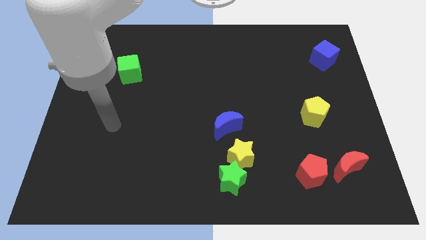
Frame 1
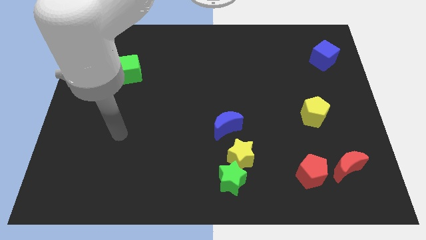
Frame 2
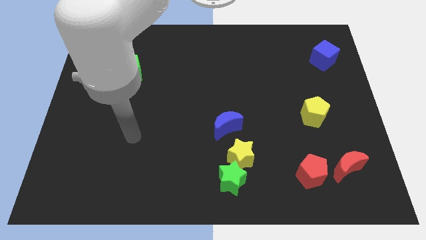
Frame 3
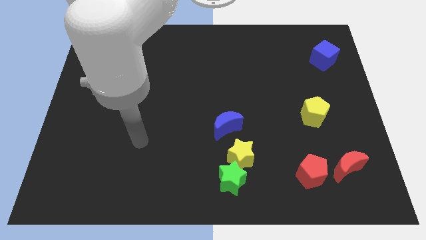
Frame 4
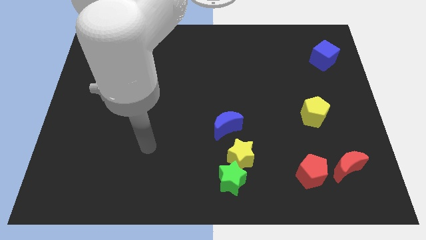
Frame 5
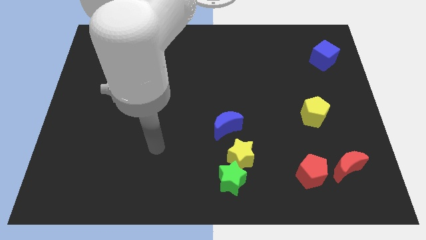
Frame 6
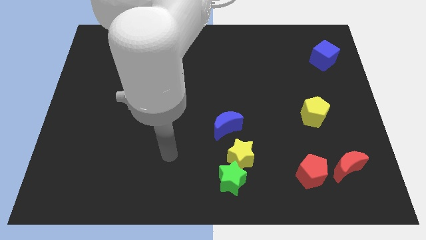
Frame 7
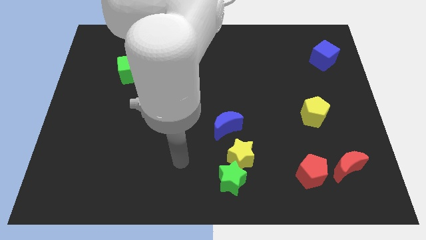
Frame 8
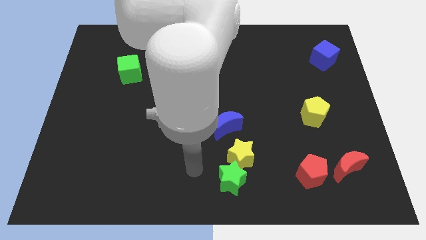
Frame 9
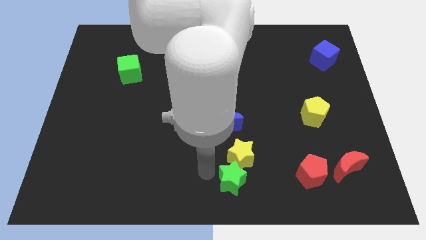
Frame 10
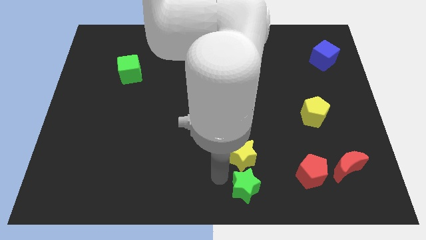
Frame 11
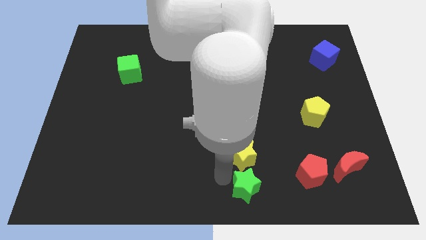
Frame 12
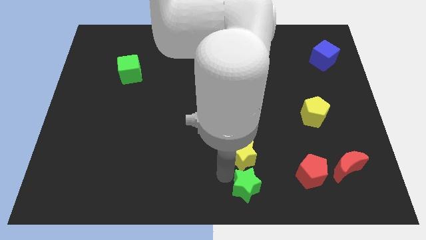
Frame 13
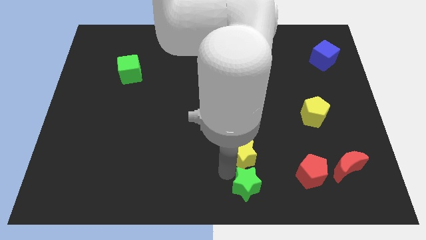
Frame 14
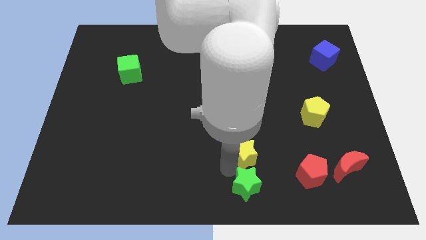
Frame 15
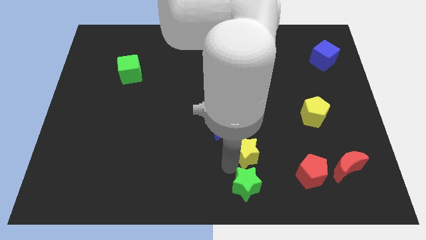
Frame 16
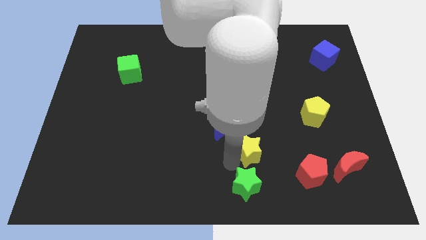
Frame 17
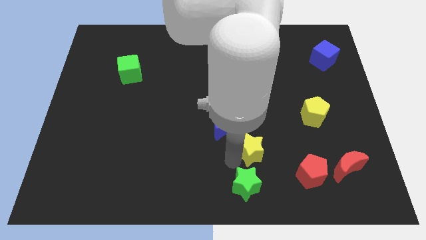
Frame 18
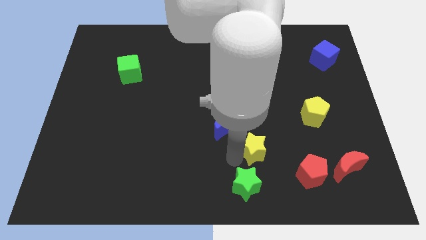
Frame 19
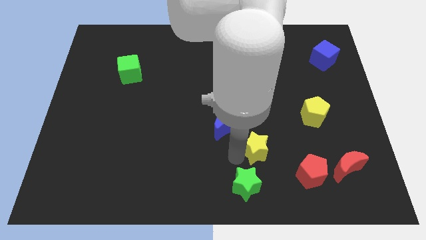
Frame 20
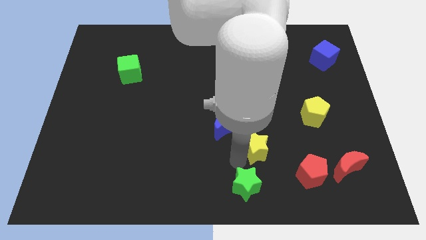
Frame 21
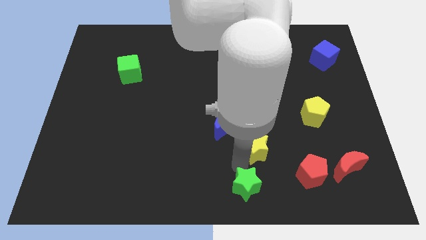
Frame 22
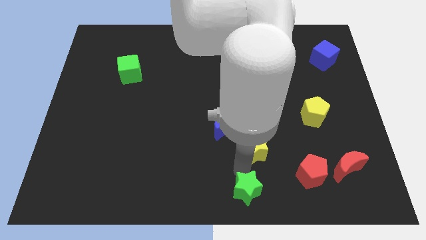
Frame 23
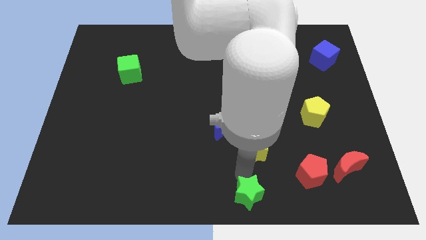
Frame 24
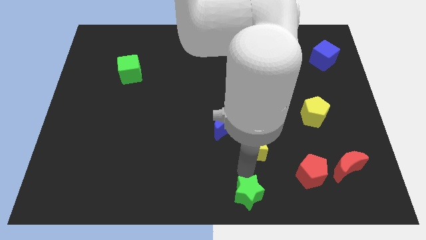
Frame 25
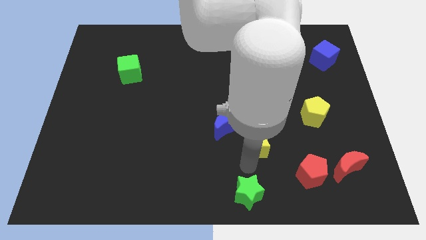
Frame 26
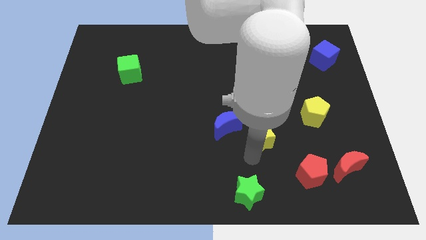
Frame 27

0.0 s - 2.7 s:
slide the yellow star upwards and to the right diagonally a little

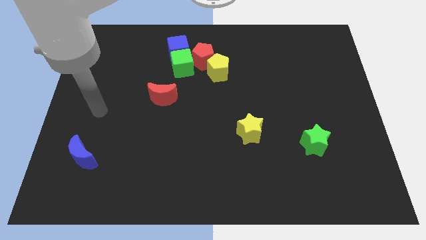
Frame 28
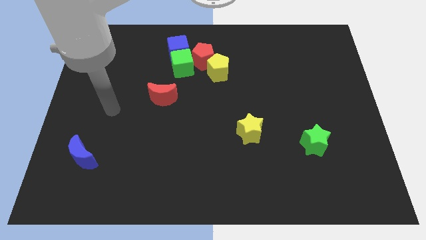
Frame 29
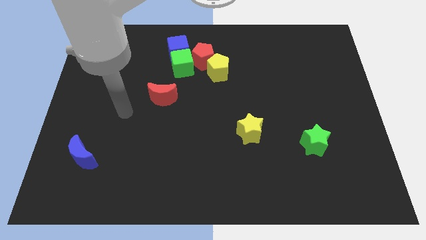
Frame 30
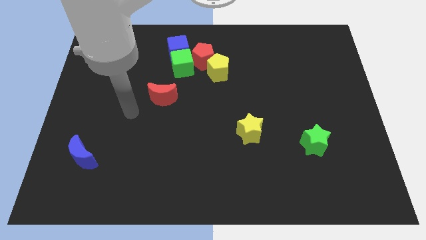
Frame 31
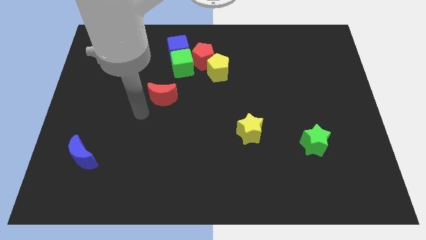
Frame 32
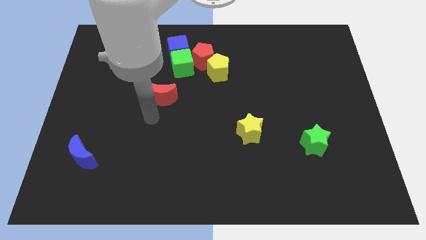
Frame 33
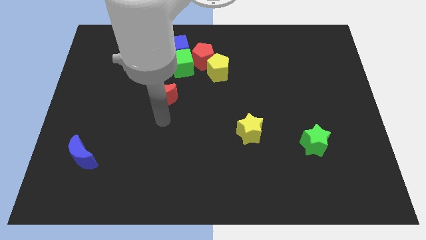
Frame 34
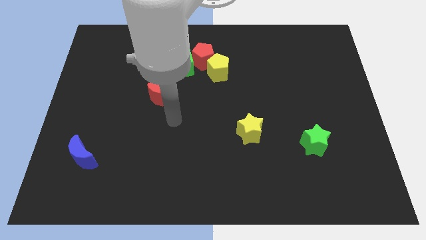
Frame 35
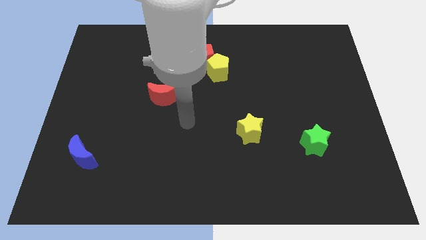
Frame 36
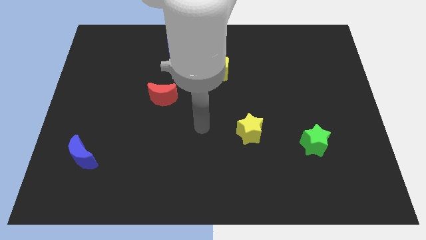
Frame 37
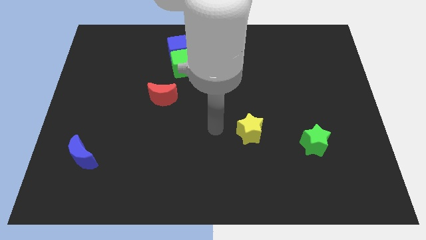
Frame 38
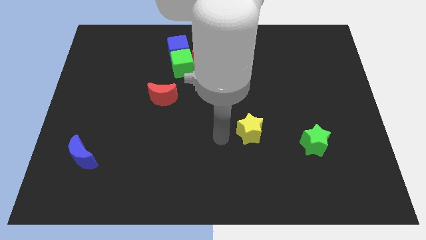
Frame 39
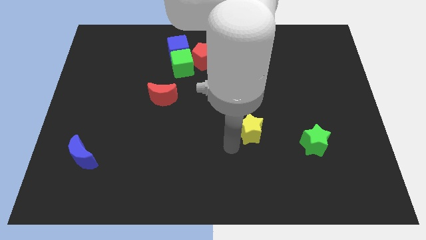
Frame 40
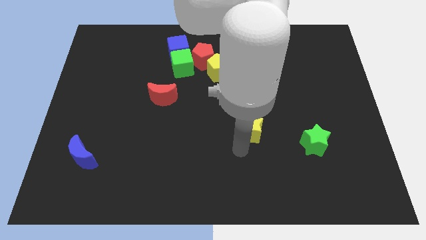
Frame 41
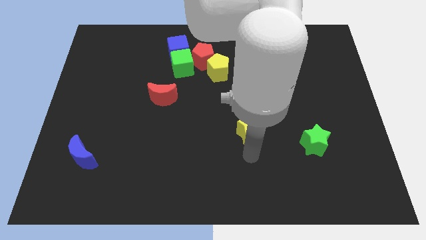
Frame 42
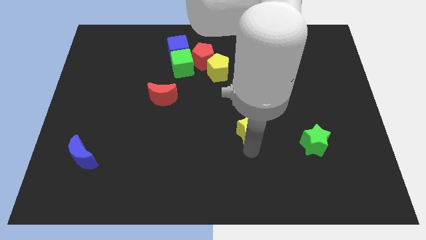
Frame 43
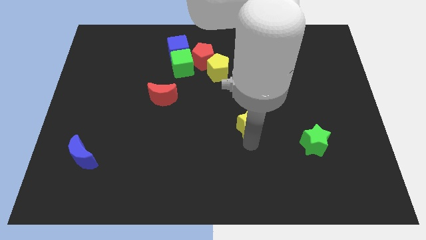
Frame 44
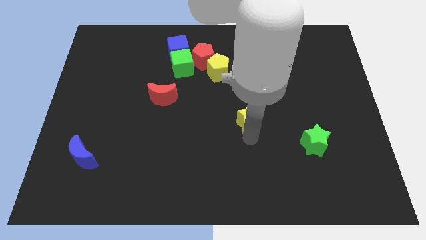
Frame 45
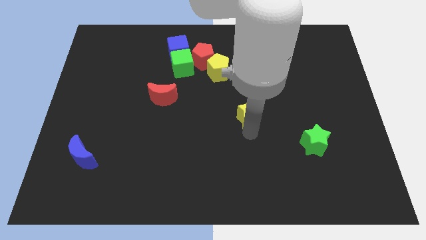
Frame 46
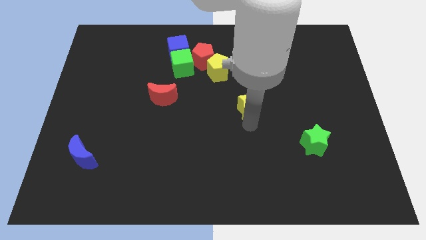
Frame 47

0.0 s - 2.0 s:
slightly slide the yellow star up

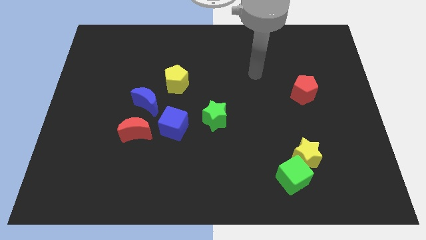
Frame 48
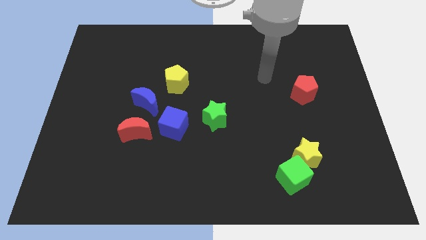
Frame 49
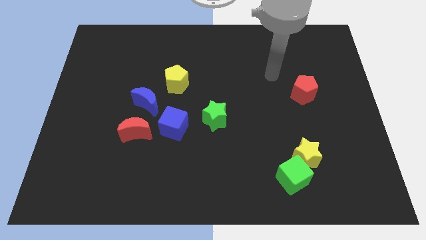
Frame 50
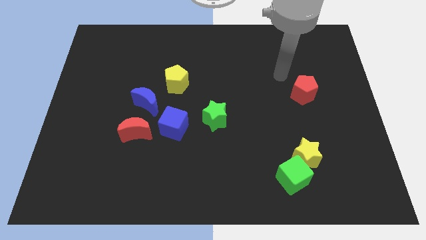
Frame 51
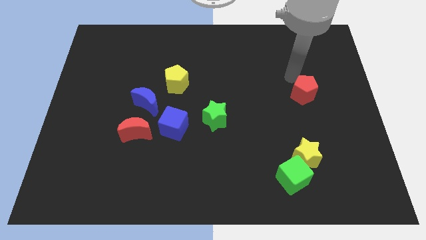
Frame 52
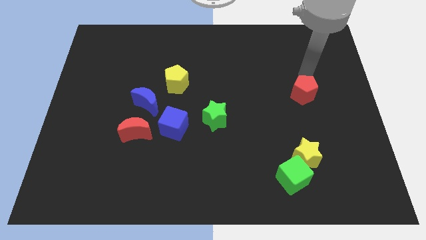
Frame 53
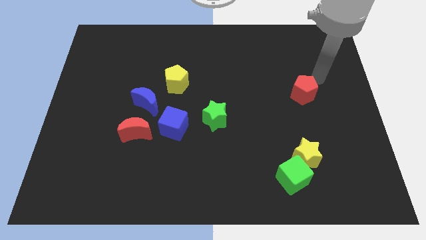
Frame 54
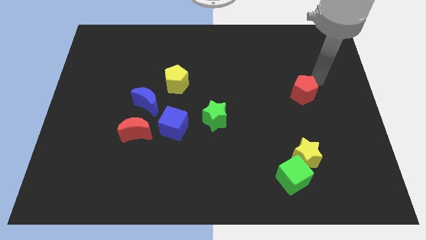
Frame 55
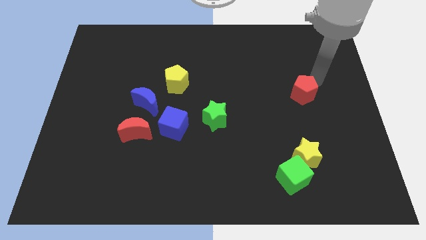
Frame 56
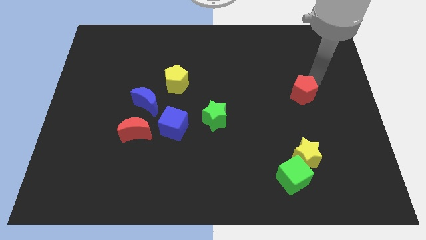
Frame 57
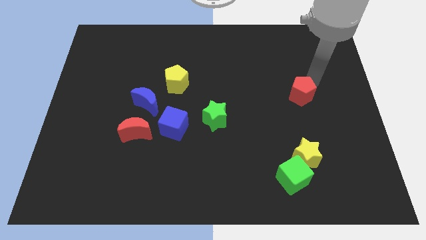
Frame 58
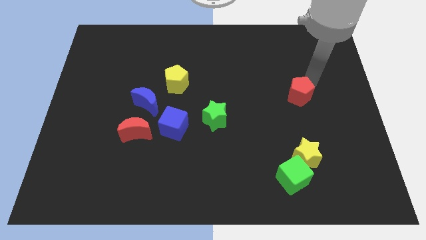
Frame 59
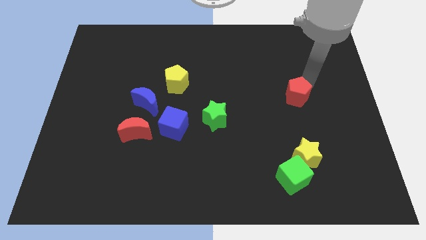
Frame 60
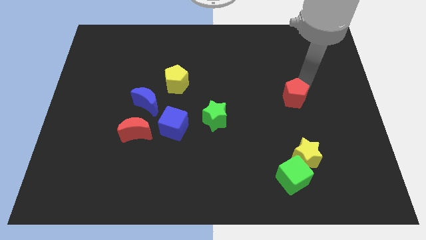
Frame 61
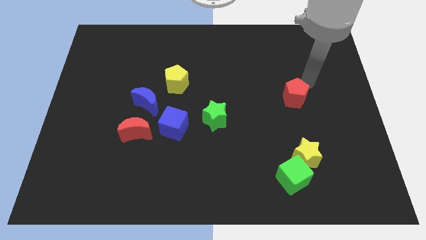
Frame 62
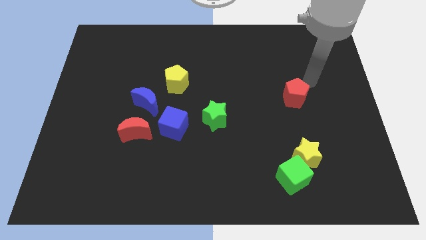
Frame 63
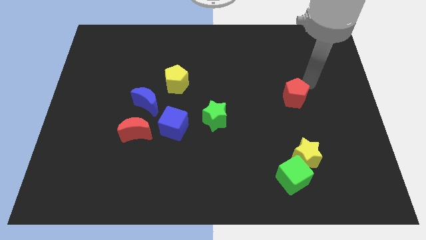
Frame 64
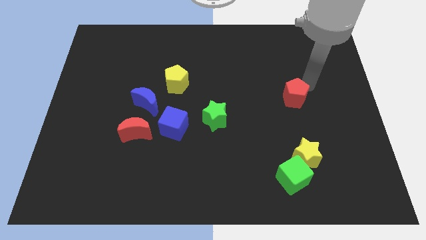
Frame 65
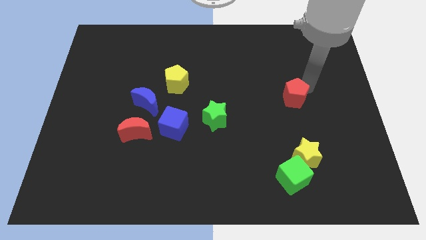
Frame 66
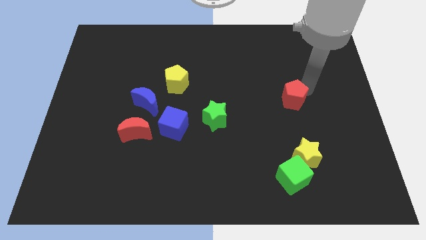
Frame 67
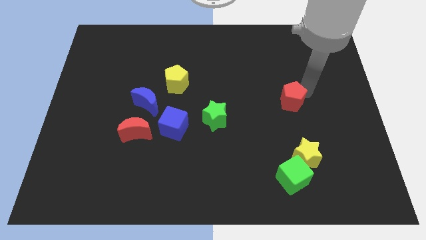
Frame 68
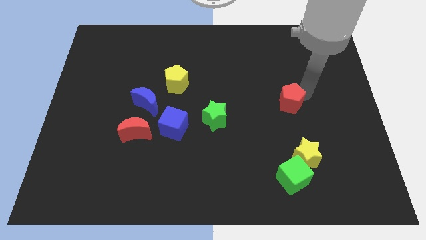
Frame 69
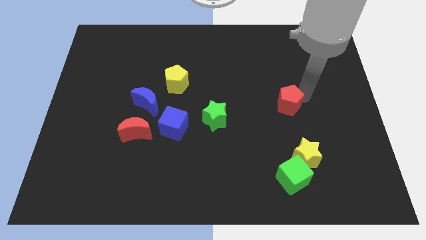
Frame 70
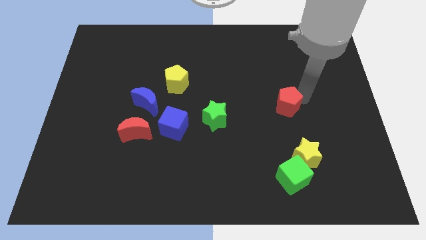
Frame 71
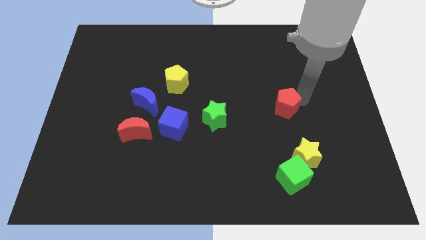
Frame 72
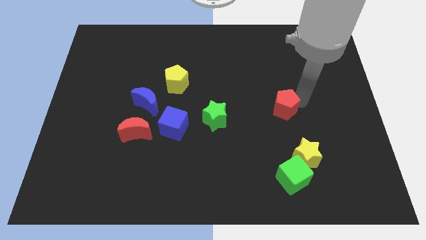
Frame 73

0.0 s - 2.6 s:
move the red pentagon slightly down and to the left

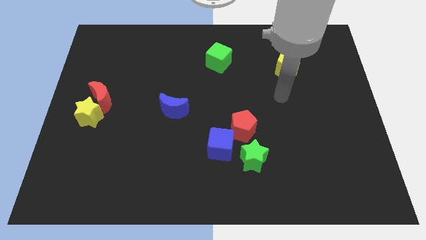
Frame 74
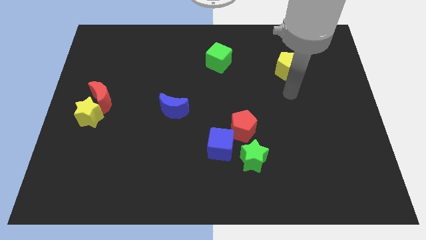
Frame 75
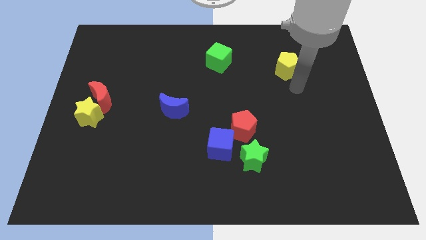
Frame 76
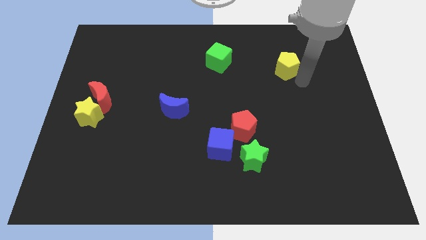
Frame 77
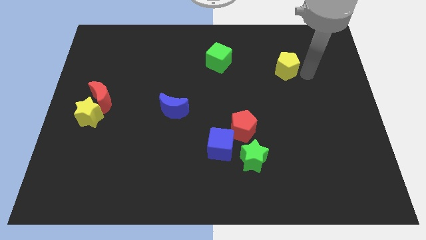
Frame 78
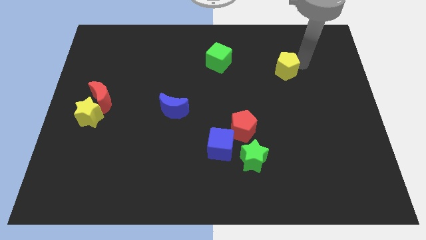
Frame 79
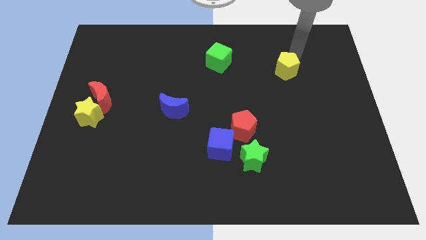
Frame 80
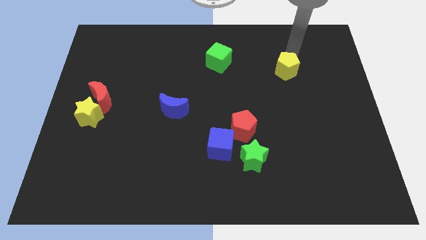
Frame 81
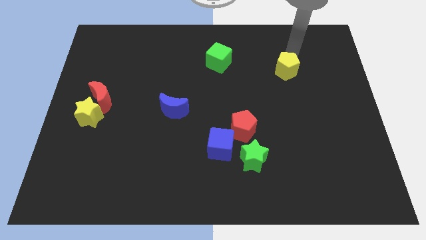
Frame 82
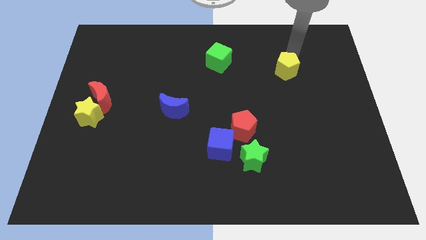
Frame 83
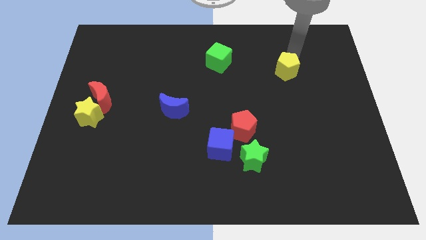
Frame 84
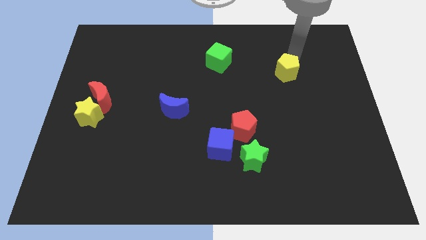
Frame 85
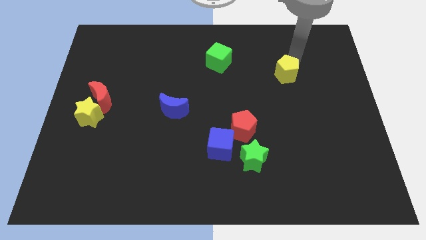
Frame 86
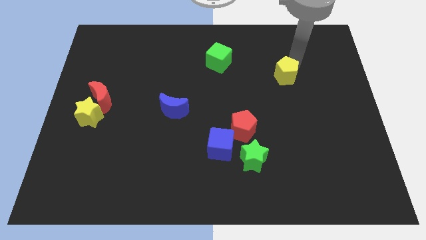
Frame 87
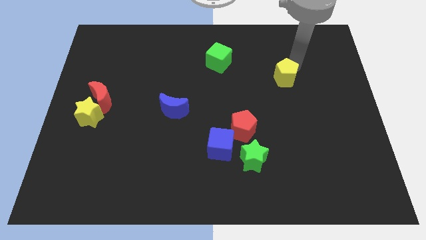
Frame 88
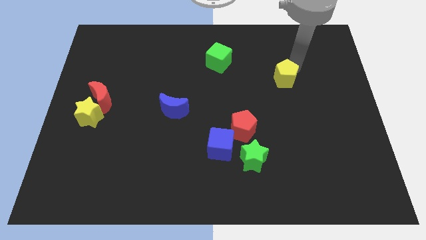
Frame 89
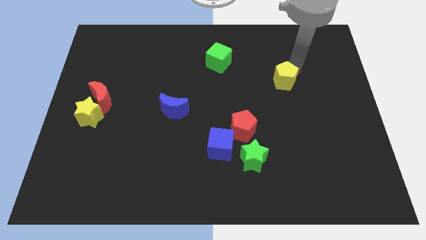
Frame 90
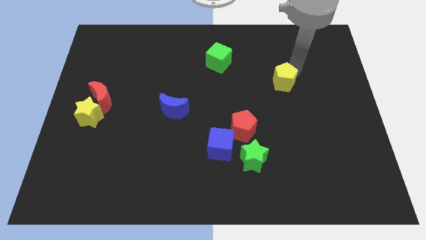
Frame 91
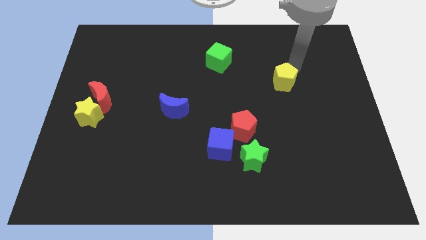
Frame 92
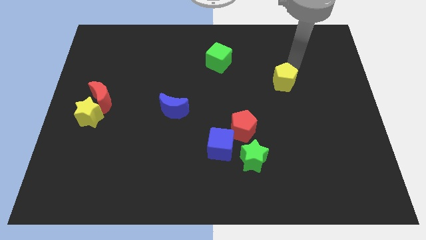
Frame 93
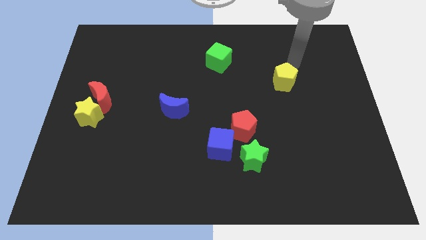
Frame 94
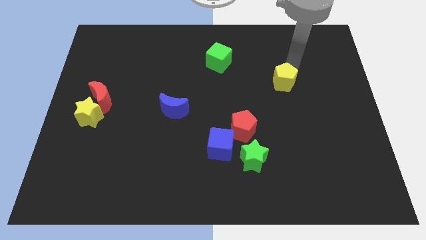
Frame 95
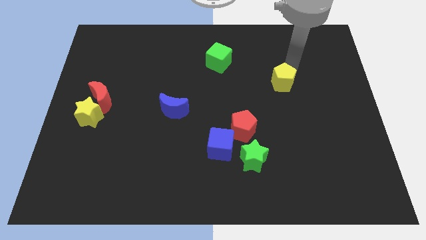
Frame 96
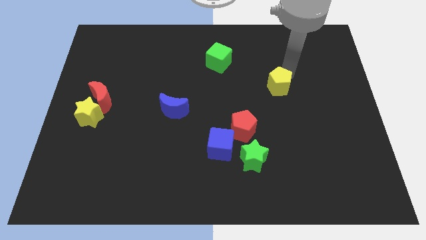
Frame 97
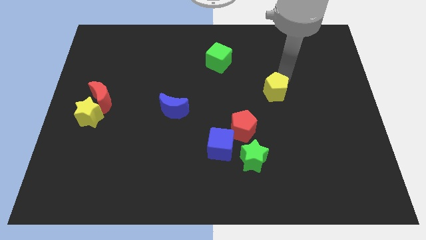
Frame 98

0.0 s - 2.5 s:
slide the yellow pentagon somewhat down
